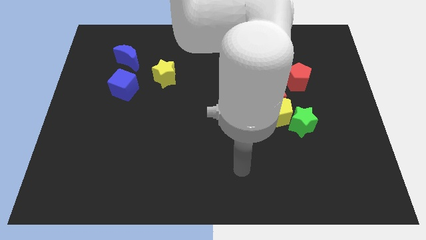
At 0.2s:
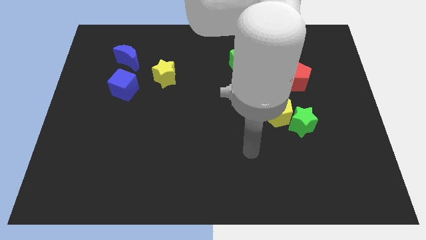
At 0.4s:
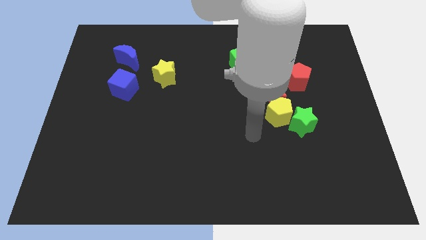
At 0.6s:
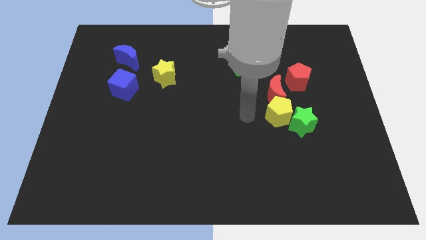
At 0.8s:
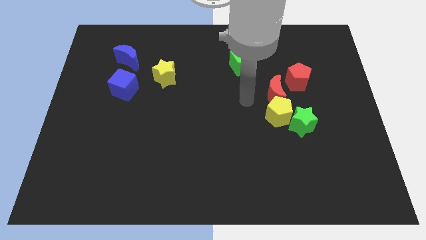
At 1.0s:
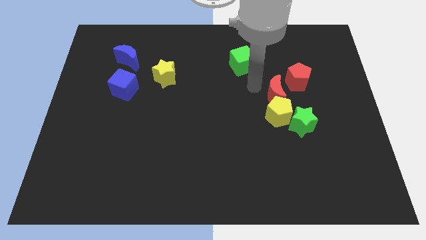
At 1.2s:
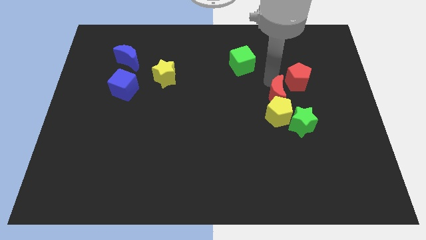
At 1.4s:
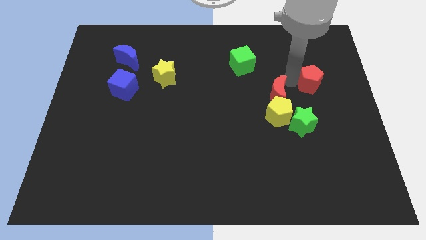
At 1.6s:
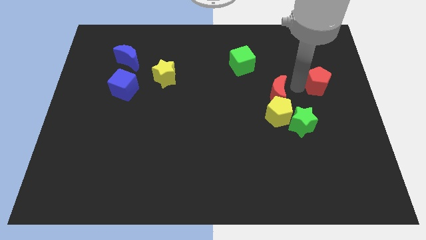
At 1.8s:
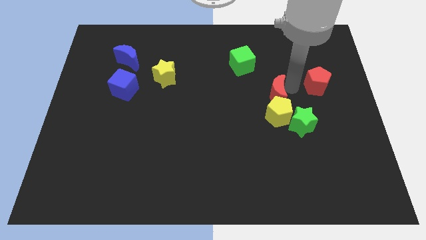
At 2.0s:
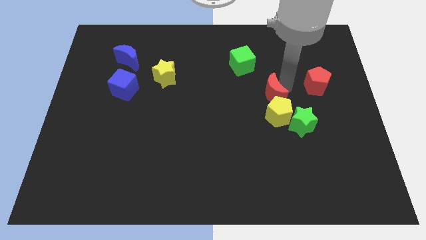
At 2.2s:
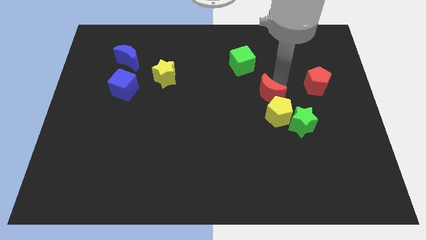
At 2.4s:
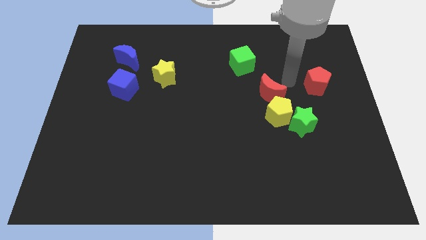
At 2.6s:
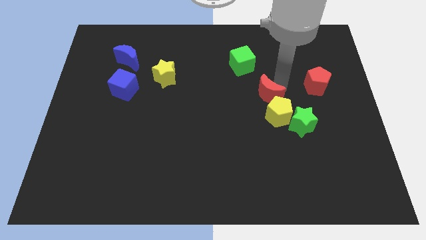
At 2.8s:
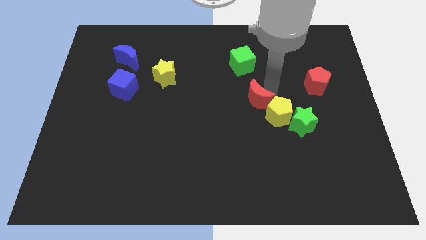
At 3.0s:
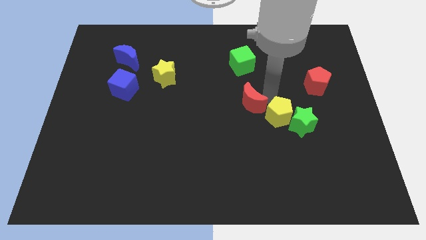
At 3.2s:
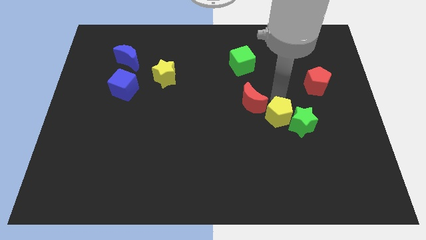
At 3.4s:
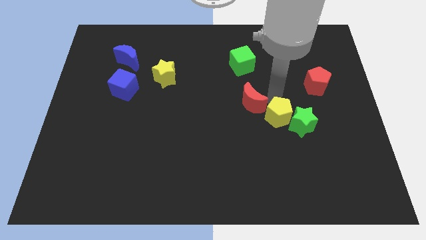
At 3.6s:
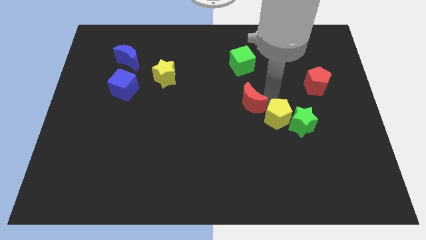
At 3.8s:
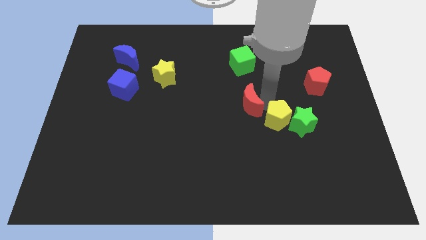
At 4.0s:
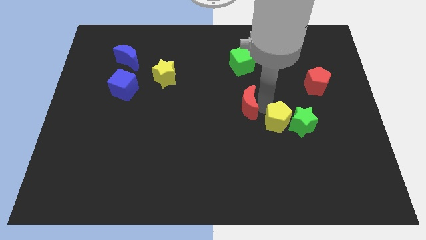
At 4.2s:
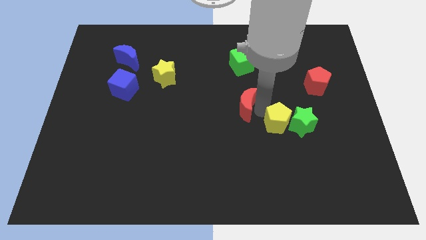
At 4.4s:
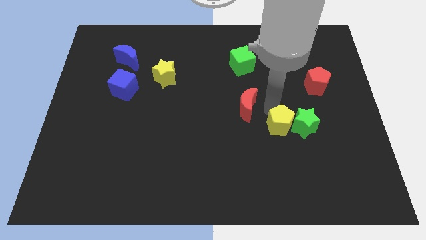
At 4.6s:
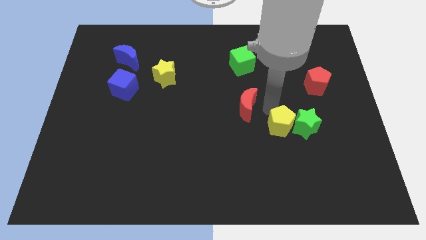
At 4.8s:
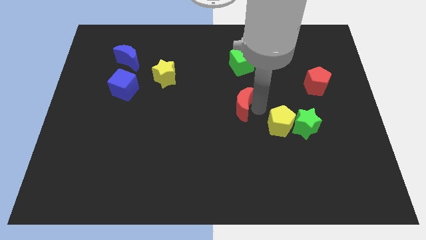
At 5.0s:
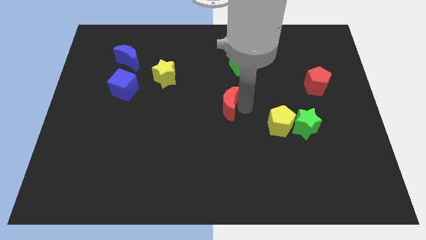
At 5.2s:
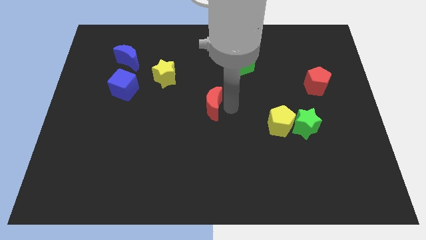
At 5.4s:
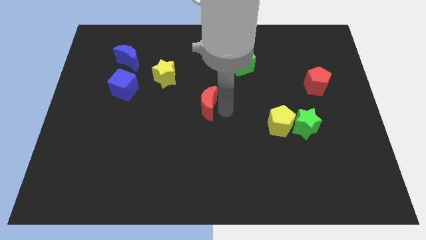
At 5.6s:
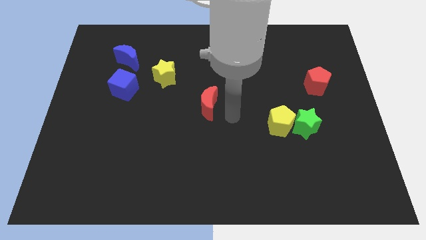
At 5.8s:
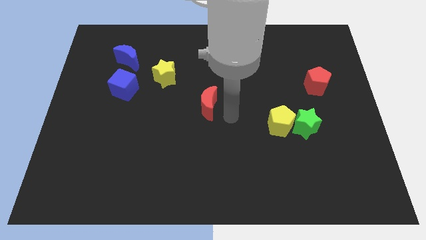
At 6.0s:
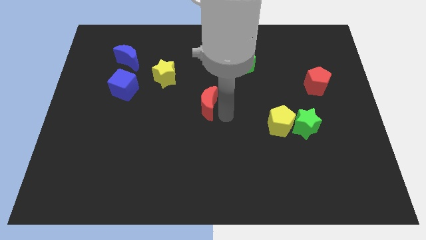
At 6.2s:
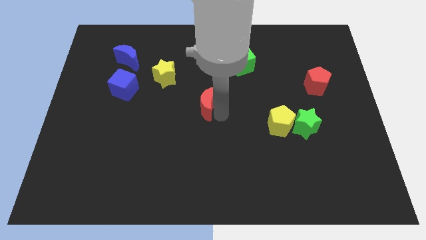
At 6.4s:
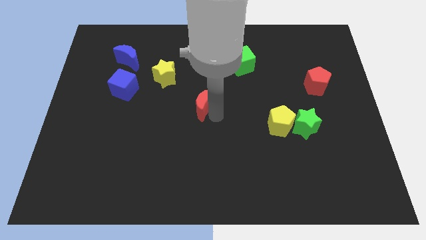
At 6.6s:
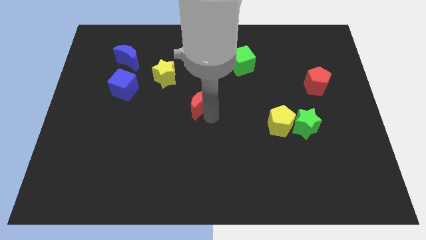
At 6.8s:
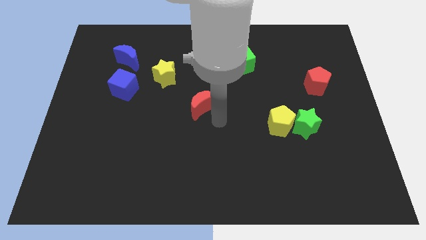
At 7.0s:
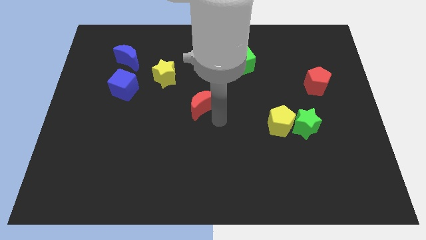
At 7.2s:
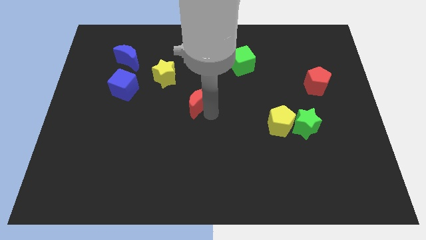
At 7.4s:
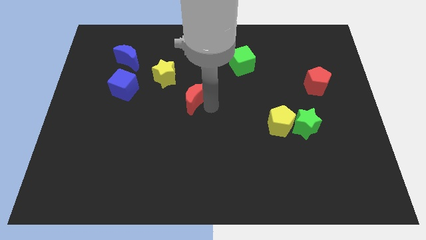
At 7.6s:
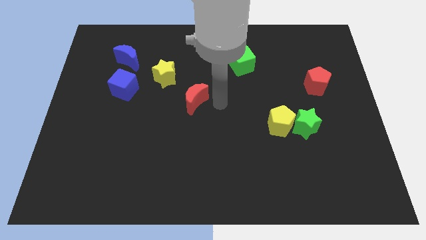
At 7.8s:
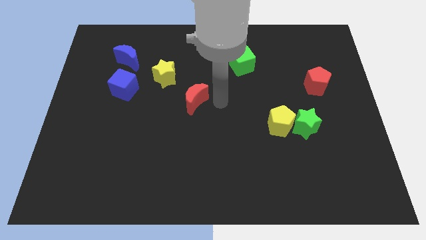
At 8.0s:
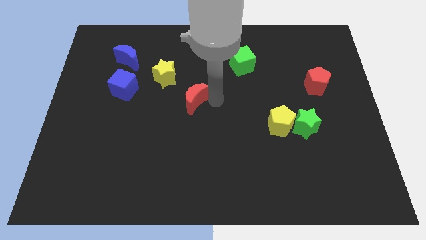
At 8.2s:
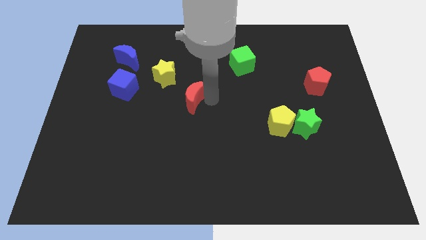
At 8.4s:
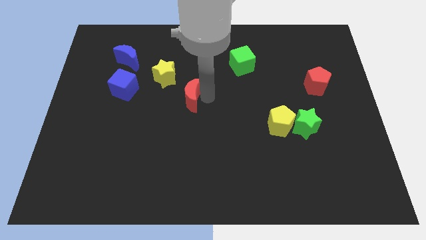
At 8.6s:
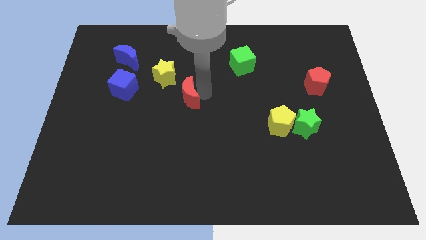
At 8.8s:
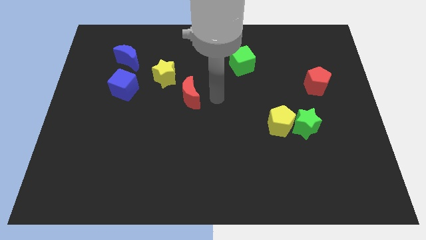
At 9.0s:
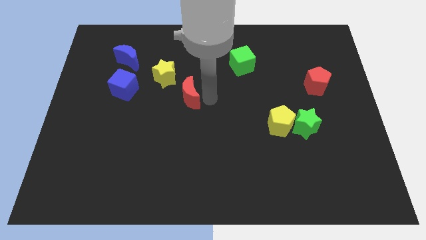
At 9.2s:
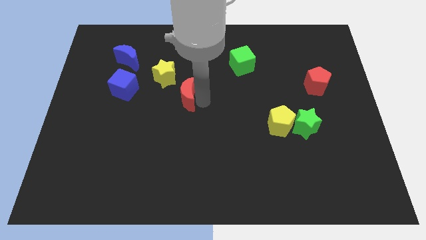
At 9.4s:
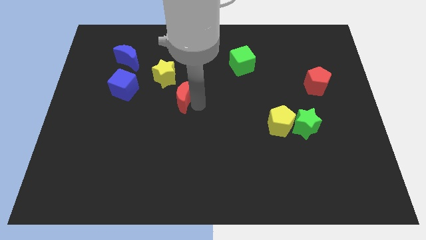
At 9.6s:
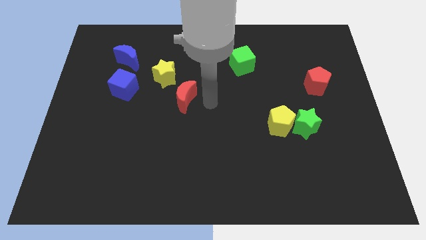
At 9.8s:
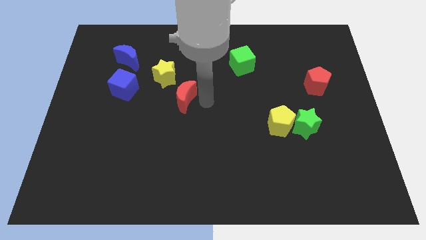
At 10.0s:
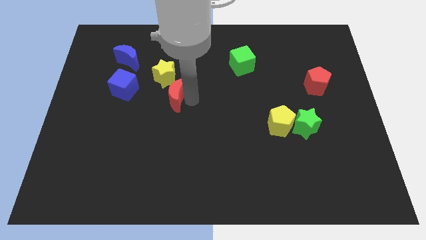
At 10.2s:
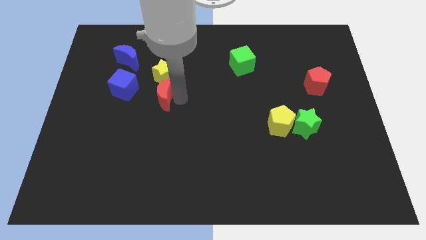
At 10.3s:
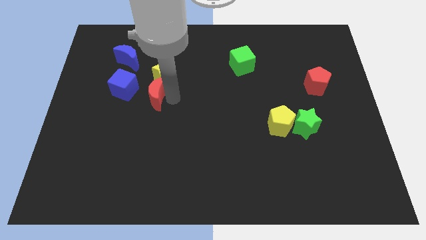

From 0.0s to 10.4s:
slide the red moon diagonally down and to the left of the yellow star

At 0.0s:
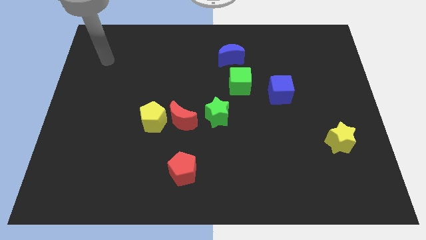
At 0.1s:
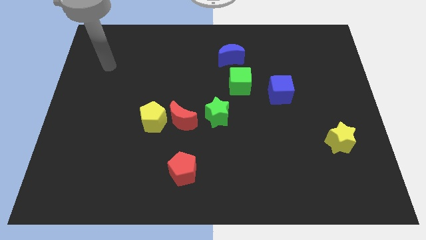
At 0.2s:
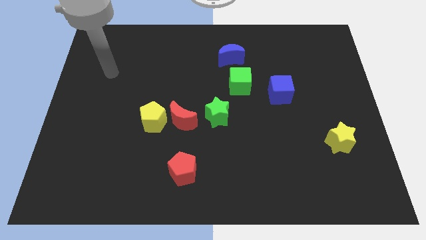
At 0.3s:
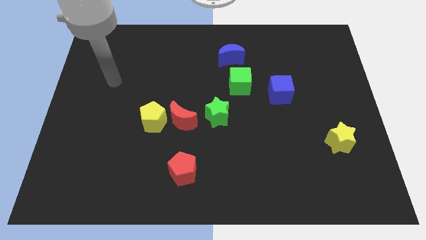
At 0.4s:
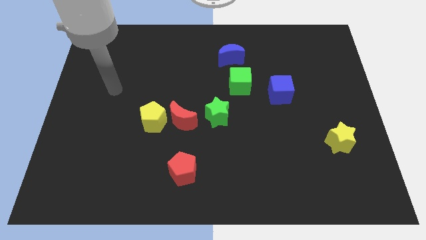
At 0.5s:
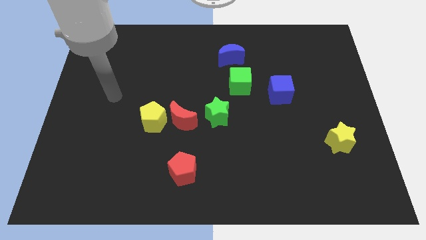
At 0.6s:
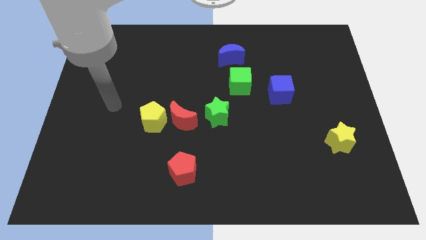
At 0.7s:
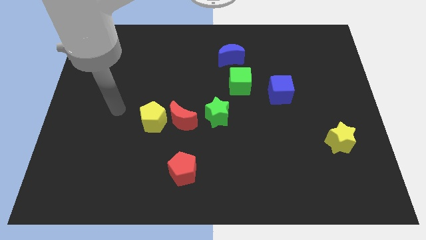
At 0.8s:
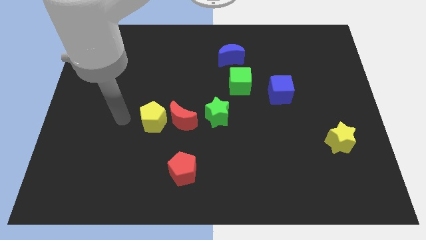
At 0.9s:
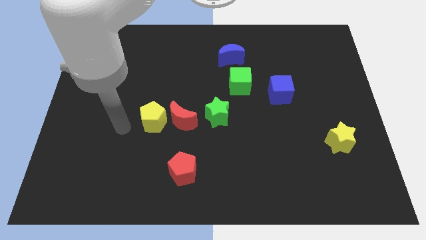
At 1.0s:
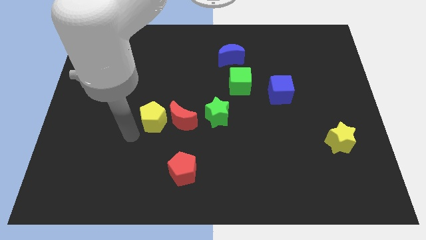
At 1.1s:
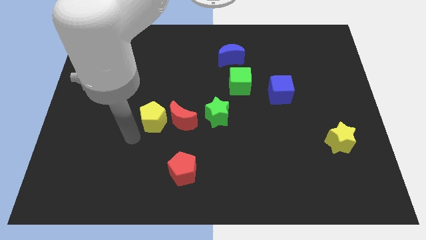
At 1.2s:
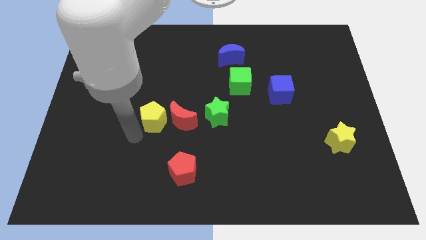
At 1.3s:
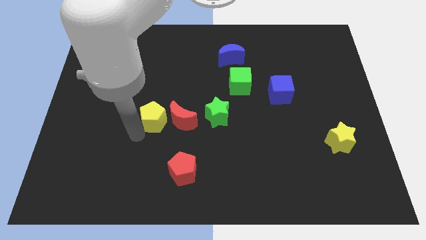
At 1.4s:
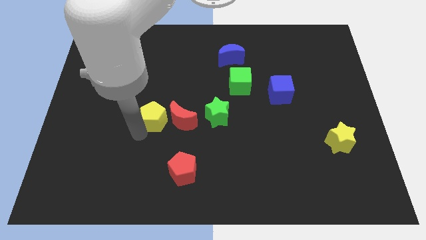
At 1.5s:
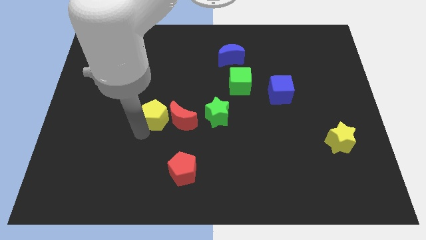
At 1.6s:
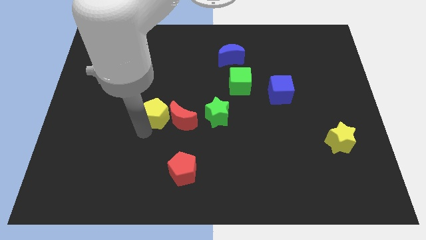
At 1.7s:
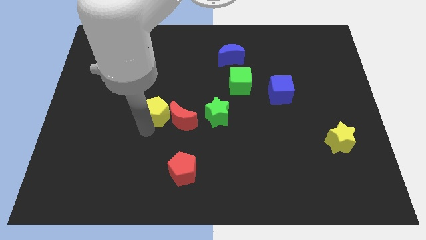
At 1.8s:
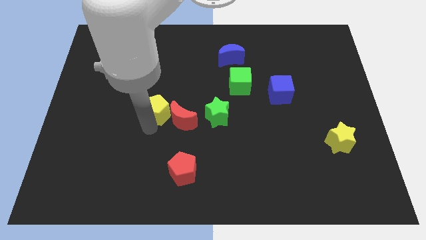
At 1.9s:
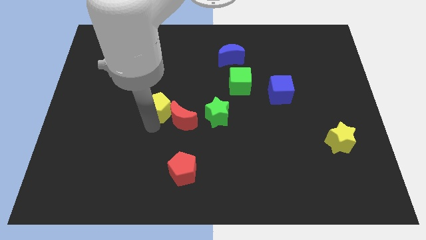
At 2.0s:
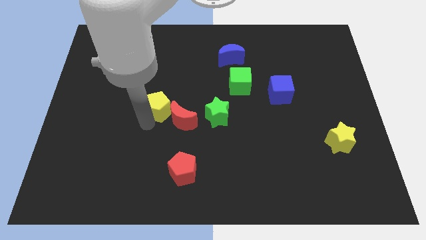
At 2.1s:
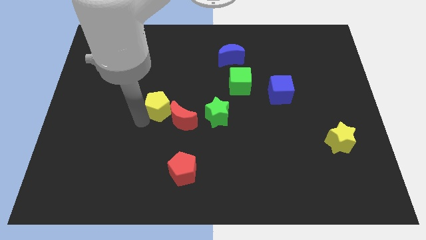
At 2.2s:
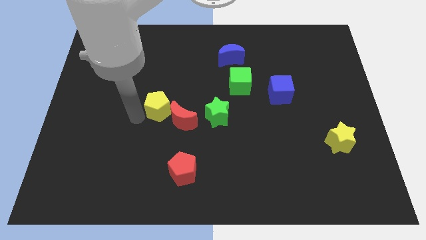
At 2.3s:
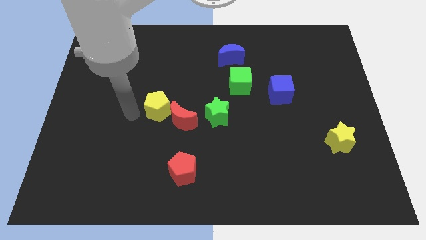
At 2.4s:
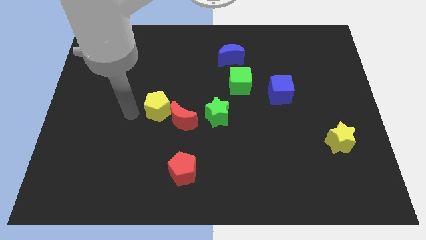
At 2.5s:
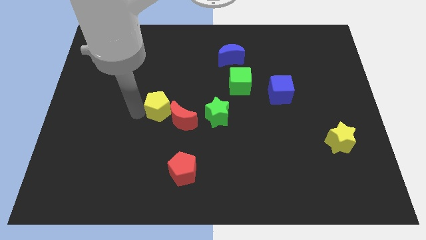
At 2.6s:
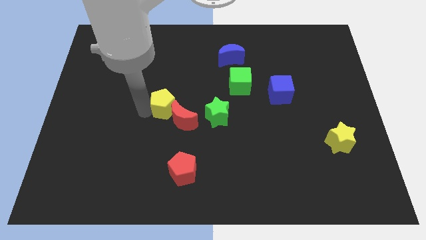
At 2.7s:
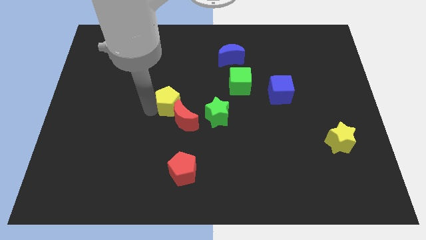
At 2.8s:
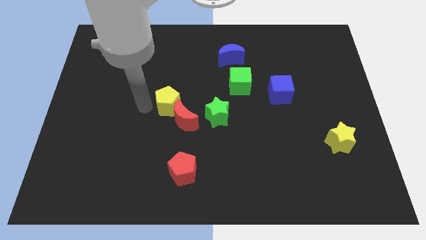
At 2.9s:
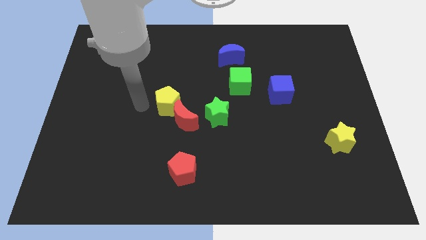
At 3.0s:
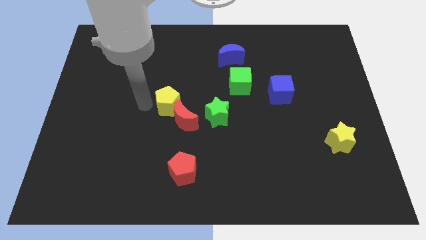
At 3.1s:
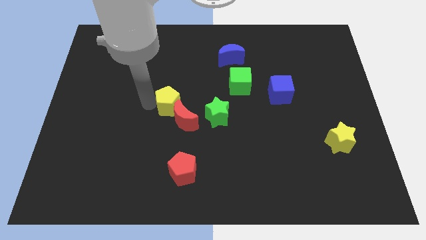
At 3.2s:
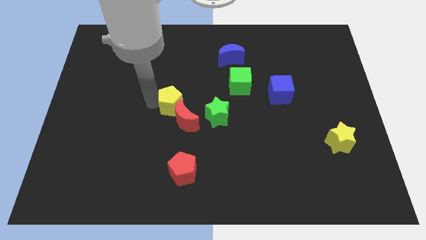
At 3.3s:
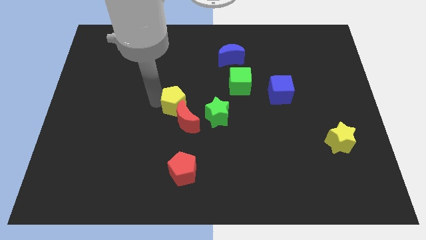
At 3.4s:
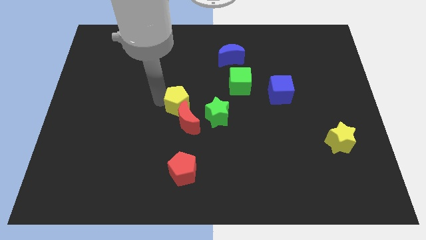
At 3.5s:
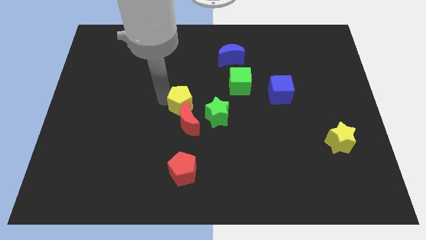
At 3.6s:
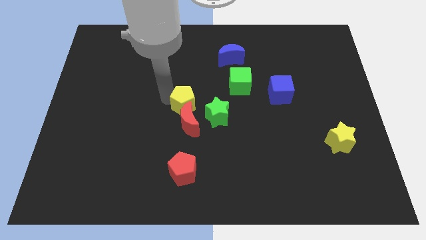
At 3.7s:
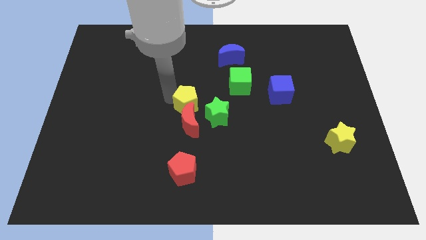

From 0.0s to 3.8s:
slide the yellow pentagon diagonally up and to the right of the red moon
